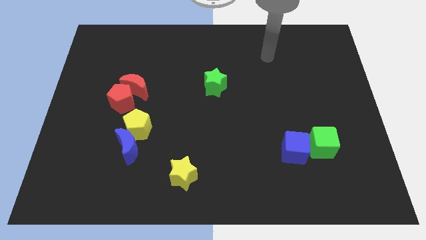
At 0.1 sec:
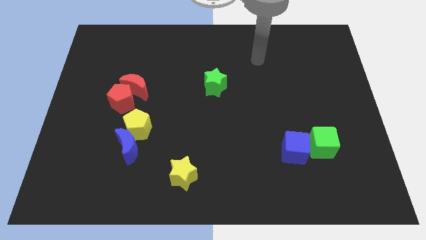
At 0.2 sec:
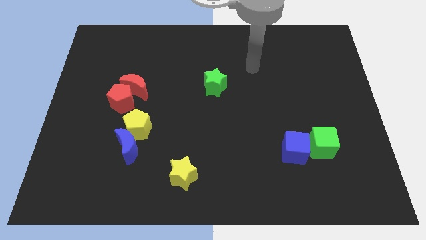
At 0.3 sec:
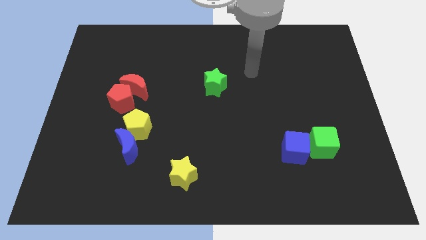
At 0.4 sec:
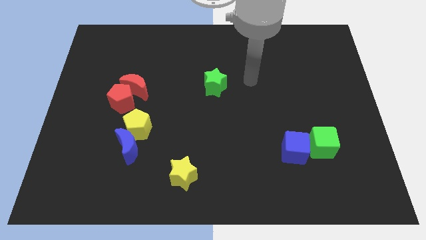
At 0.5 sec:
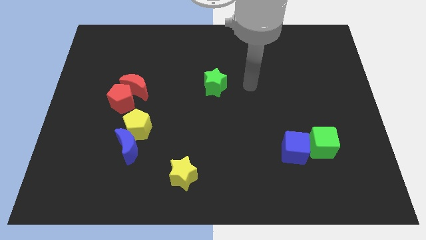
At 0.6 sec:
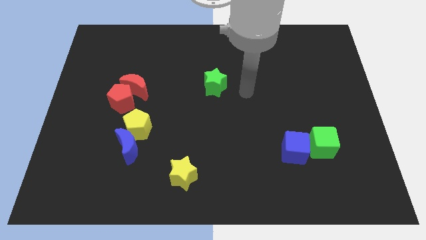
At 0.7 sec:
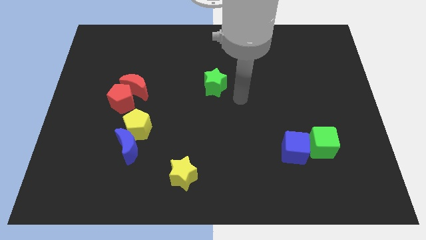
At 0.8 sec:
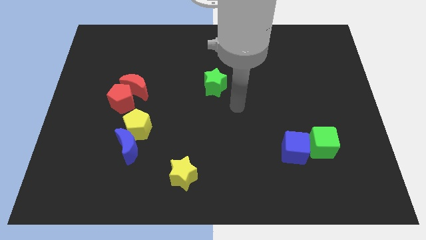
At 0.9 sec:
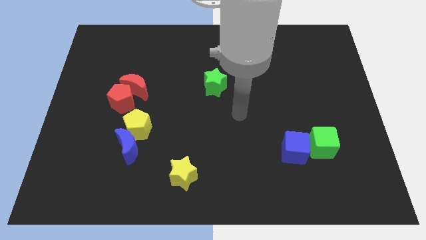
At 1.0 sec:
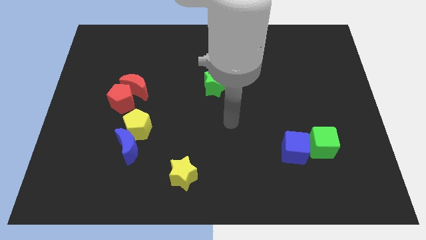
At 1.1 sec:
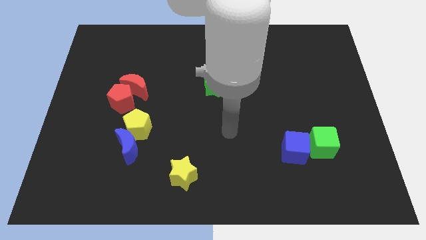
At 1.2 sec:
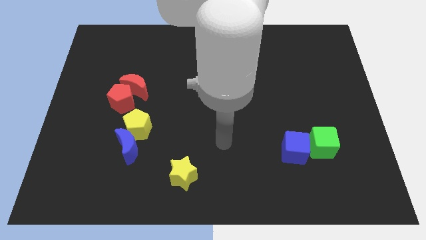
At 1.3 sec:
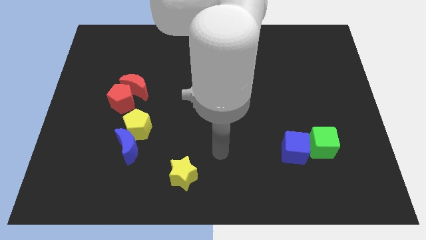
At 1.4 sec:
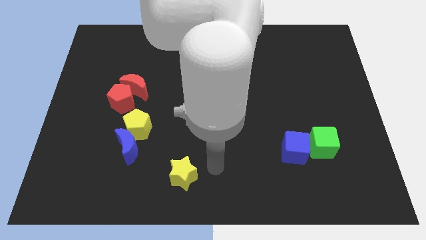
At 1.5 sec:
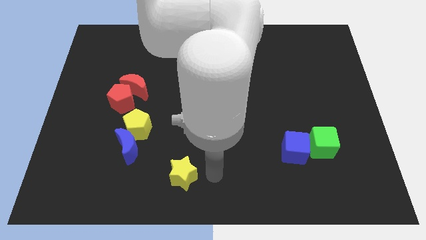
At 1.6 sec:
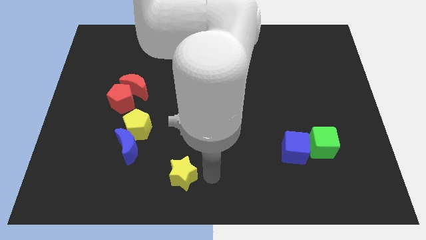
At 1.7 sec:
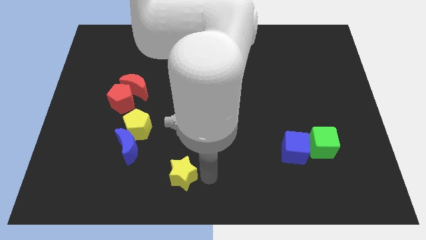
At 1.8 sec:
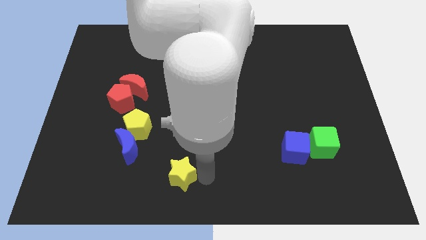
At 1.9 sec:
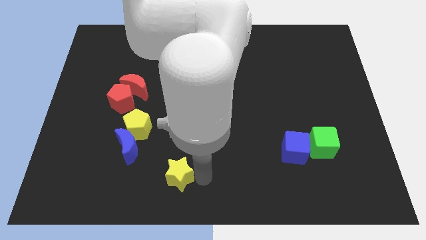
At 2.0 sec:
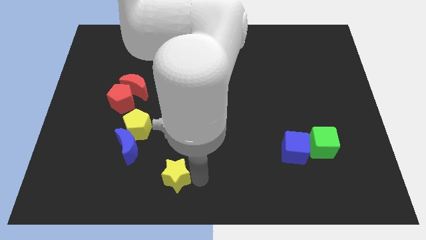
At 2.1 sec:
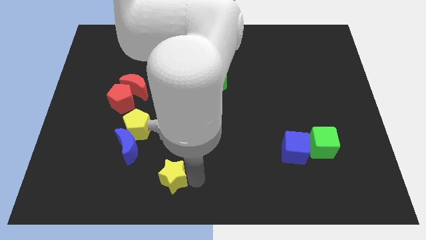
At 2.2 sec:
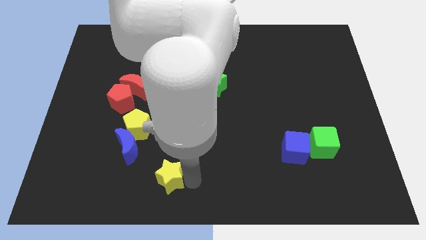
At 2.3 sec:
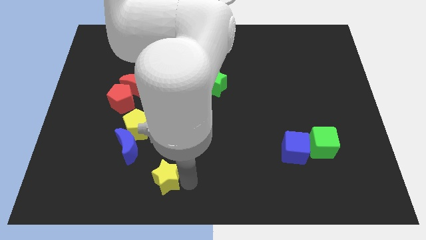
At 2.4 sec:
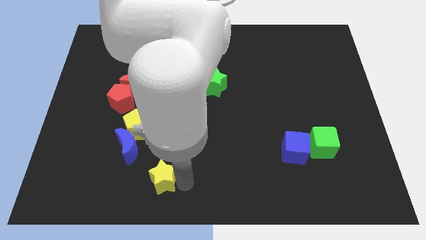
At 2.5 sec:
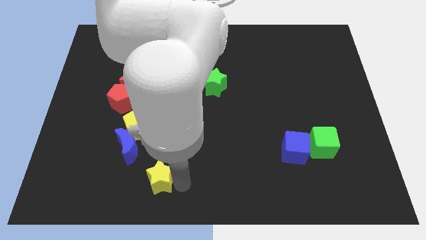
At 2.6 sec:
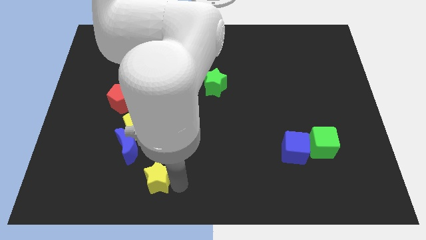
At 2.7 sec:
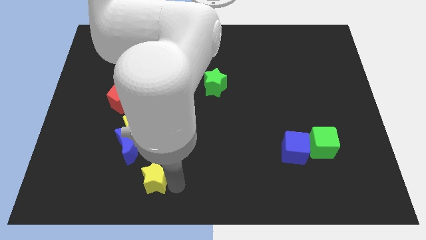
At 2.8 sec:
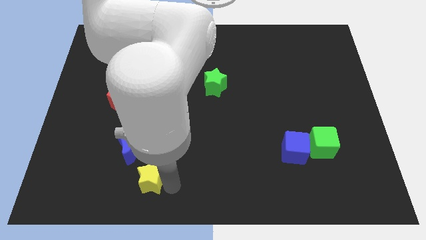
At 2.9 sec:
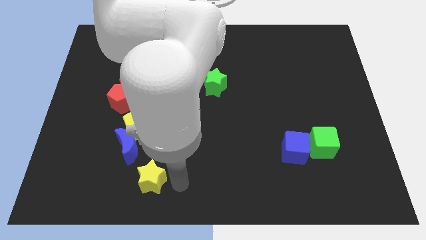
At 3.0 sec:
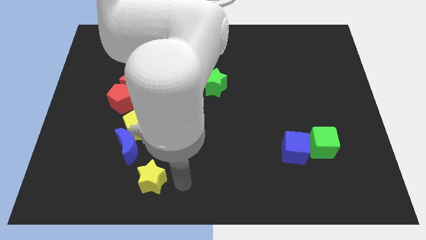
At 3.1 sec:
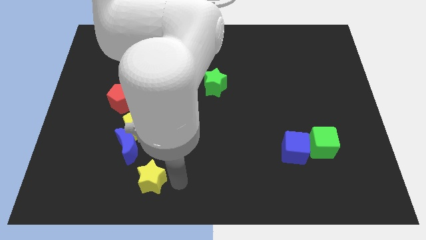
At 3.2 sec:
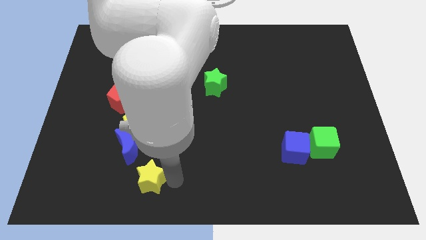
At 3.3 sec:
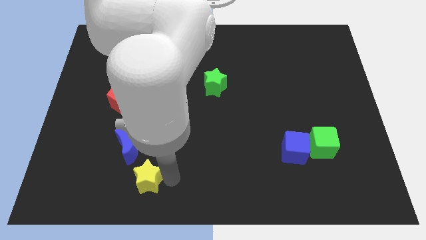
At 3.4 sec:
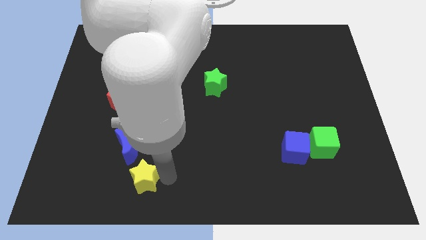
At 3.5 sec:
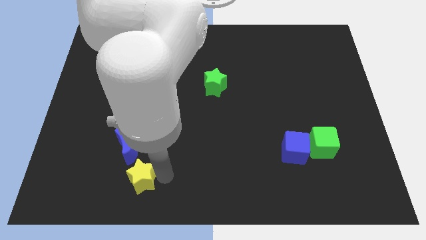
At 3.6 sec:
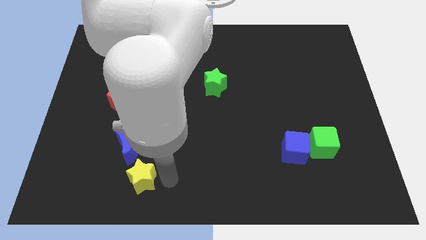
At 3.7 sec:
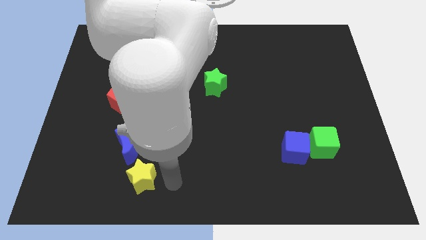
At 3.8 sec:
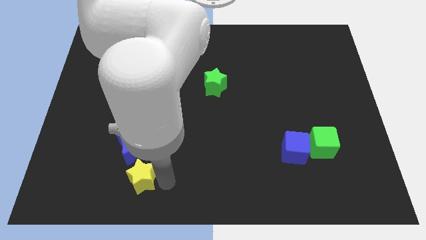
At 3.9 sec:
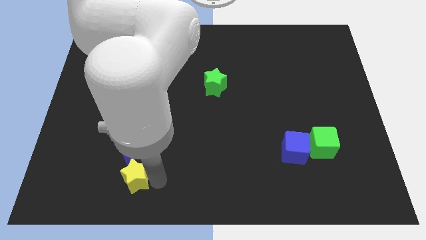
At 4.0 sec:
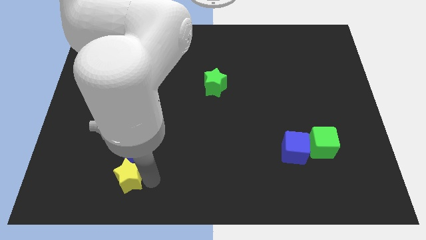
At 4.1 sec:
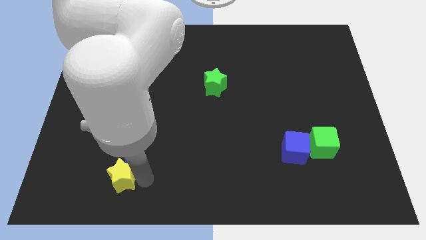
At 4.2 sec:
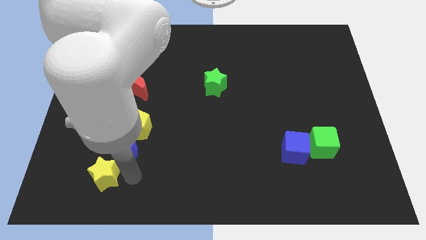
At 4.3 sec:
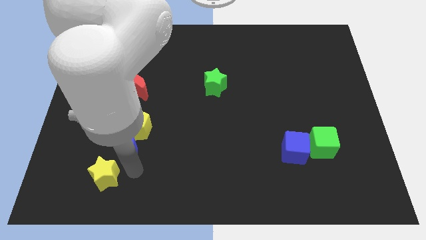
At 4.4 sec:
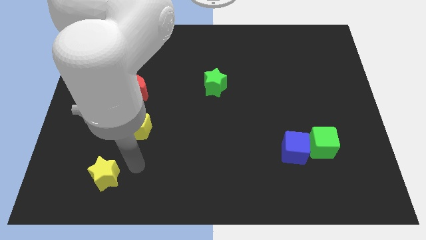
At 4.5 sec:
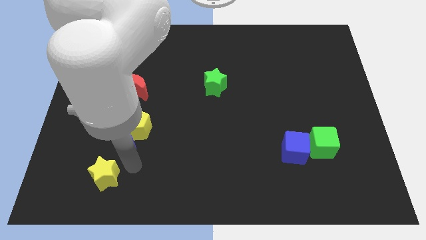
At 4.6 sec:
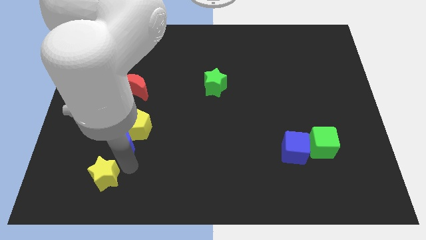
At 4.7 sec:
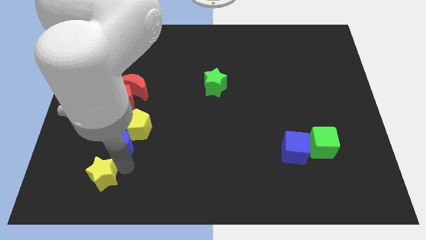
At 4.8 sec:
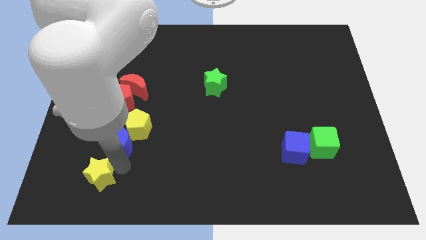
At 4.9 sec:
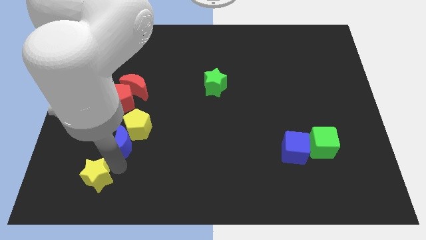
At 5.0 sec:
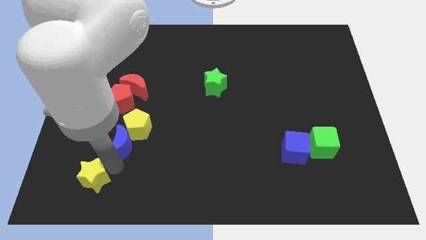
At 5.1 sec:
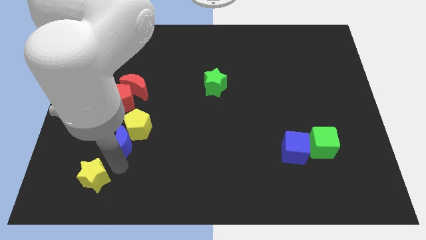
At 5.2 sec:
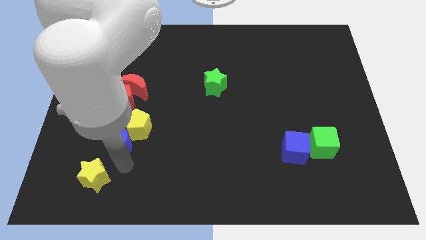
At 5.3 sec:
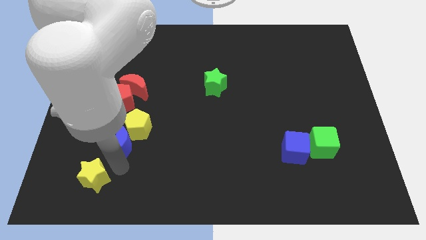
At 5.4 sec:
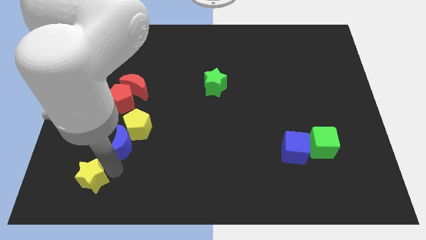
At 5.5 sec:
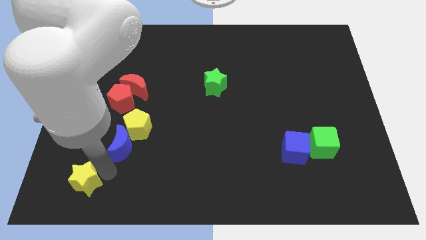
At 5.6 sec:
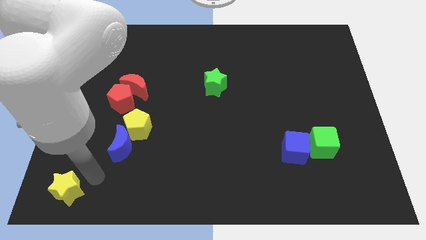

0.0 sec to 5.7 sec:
slide the yellow star to the bottom left of the board

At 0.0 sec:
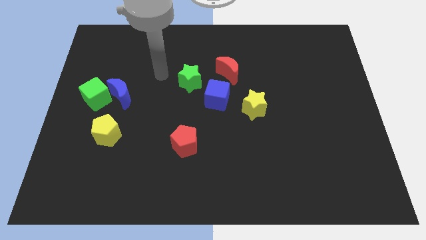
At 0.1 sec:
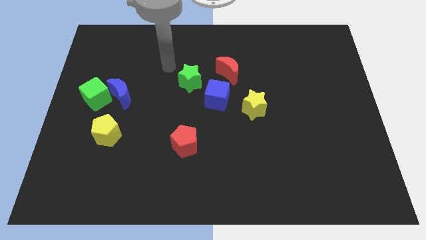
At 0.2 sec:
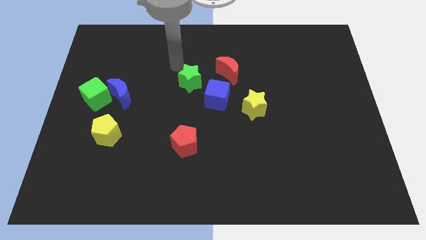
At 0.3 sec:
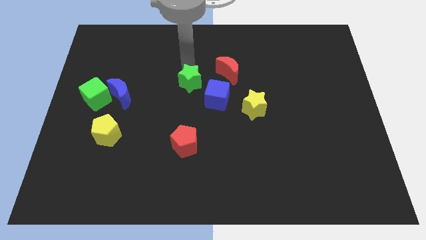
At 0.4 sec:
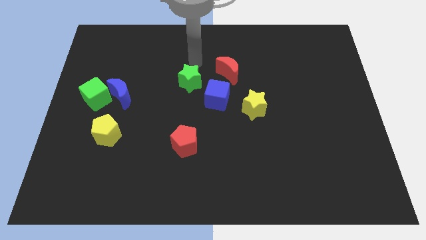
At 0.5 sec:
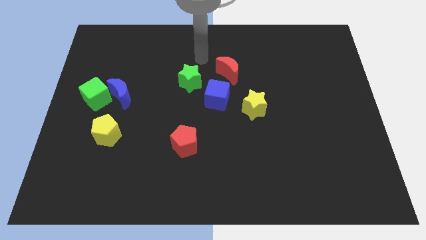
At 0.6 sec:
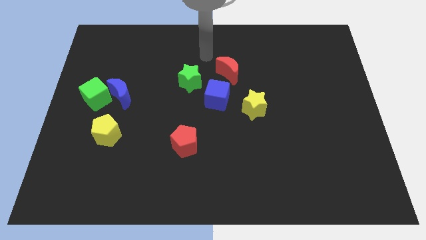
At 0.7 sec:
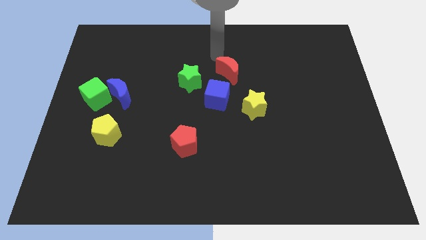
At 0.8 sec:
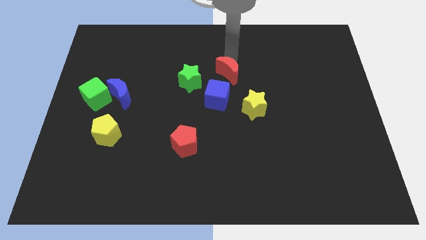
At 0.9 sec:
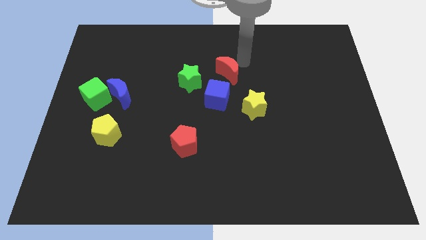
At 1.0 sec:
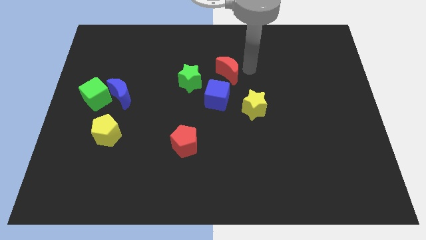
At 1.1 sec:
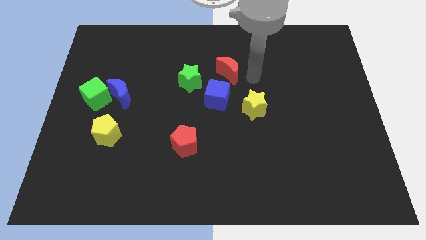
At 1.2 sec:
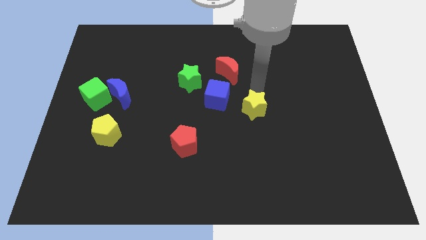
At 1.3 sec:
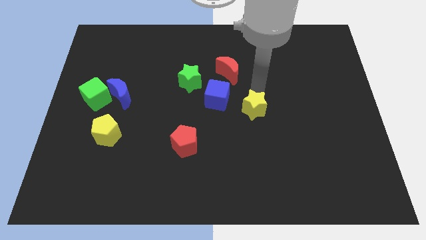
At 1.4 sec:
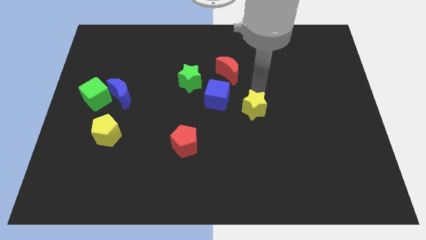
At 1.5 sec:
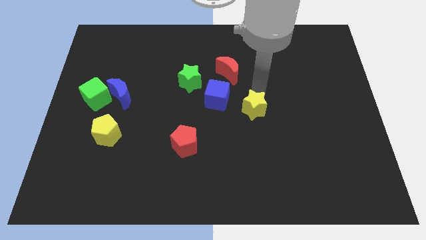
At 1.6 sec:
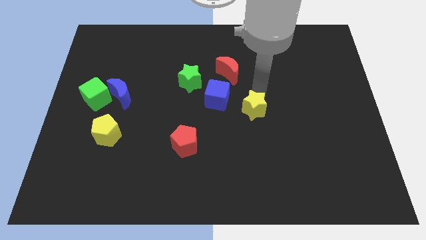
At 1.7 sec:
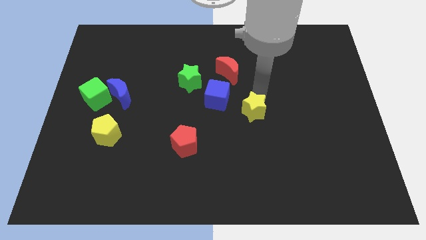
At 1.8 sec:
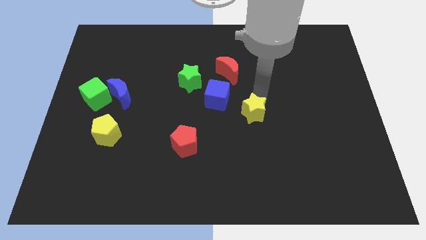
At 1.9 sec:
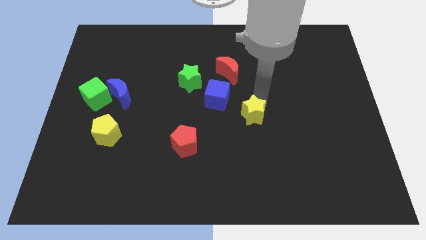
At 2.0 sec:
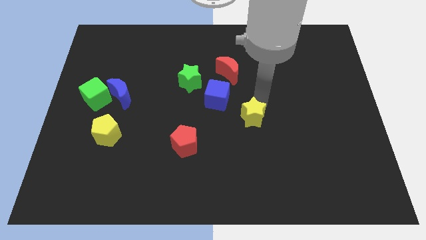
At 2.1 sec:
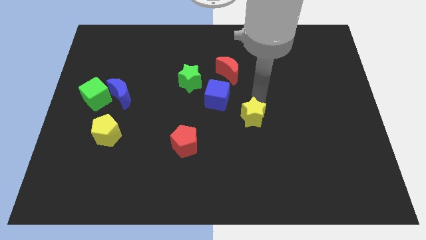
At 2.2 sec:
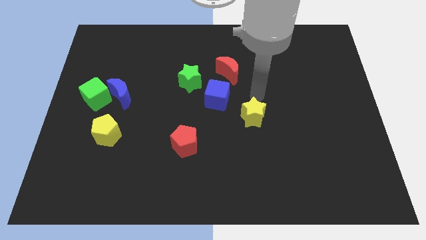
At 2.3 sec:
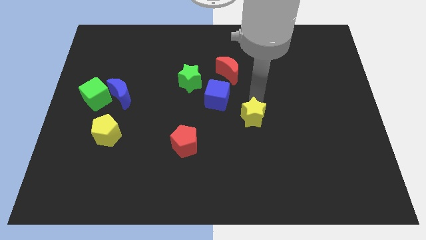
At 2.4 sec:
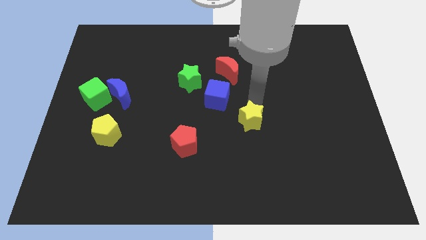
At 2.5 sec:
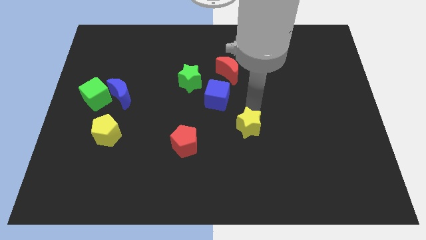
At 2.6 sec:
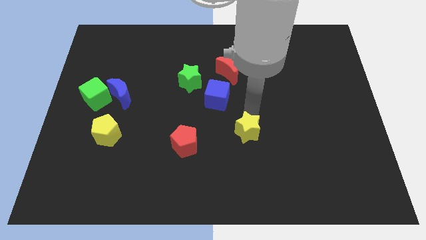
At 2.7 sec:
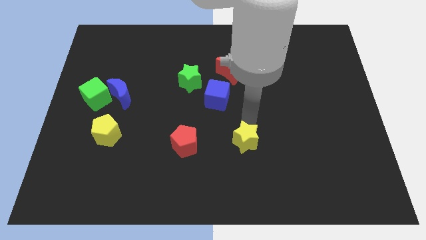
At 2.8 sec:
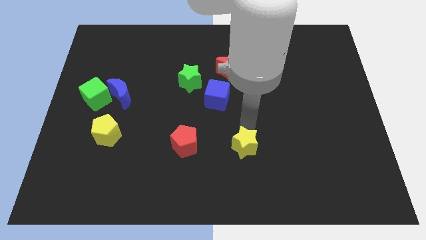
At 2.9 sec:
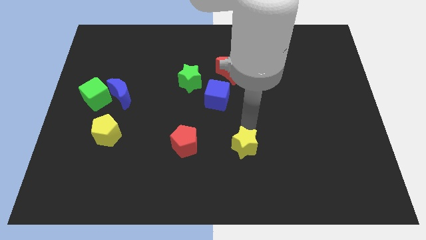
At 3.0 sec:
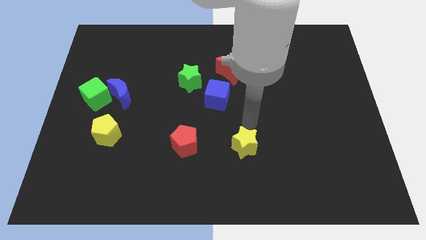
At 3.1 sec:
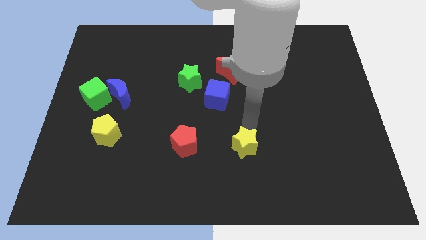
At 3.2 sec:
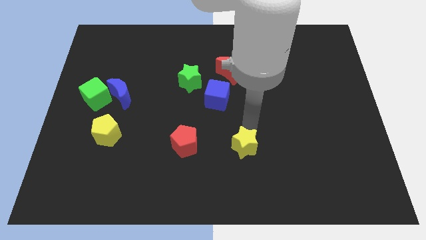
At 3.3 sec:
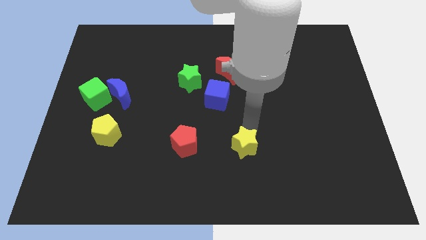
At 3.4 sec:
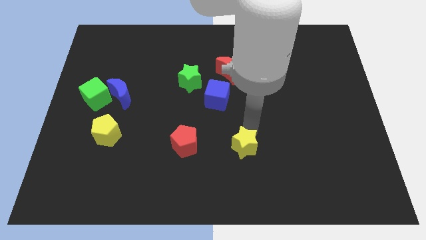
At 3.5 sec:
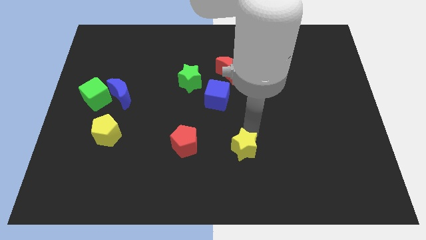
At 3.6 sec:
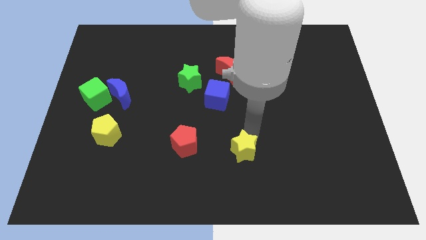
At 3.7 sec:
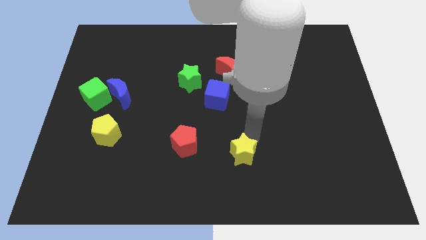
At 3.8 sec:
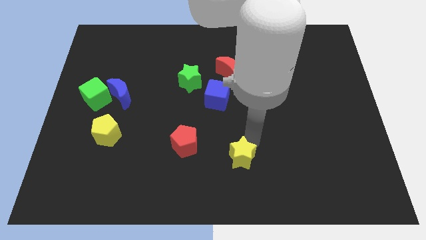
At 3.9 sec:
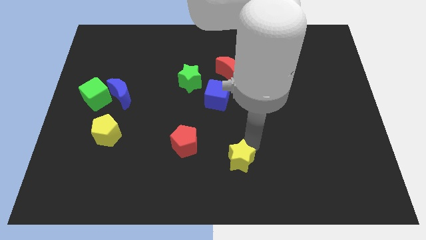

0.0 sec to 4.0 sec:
push the yellow star to the bottom side
